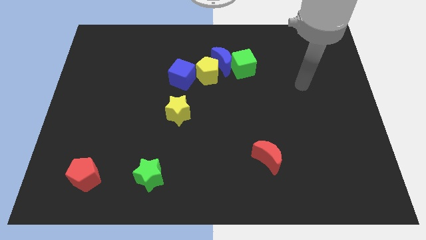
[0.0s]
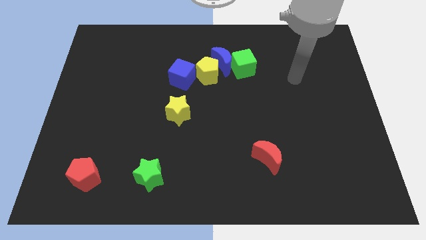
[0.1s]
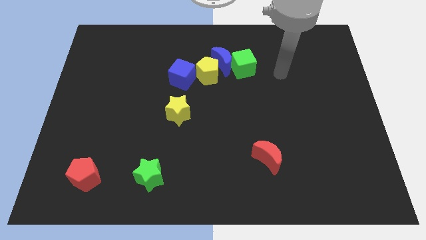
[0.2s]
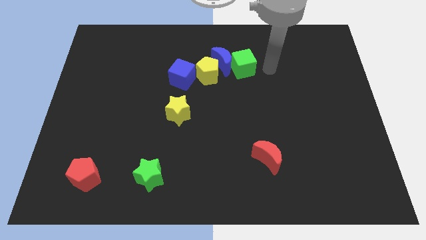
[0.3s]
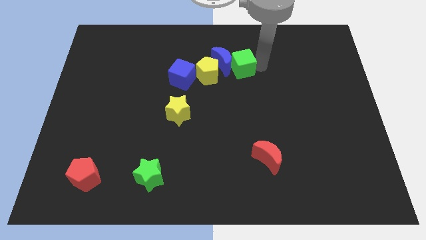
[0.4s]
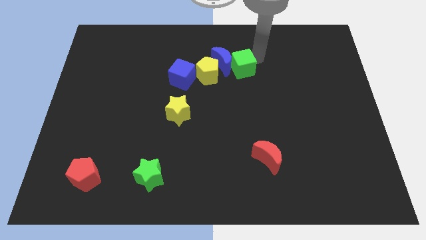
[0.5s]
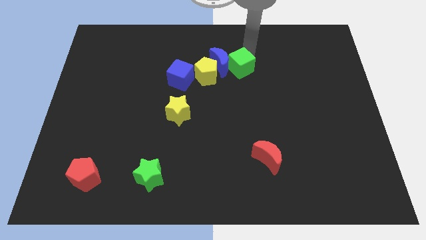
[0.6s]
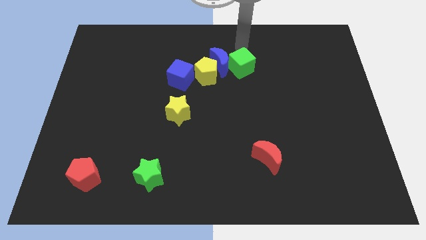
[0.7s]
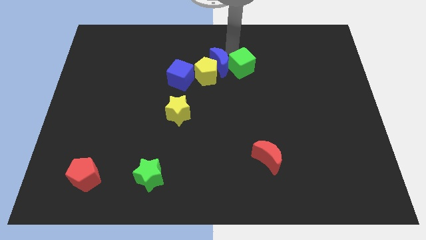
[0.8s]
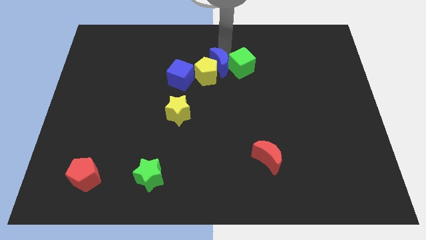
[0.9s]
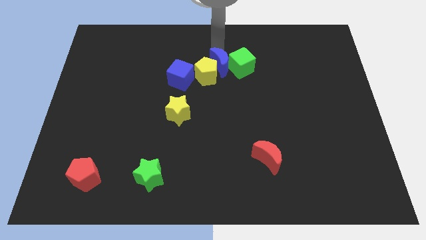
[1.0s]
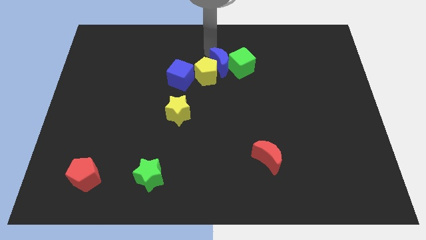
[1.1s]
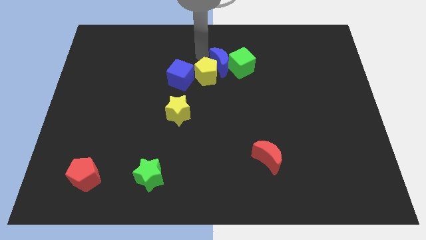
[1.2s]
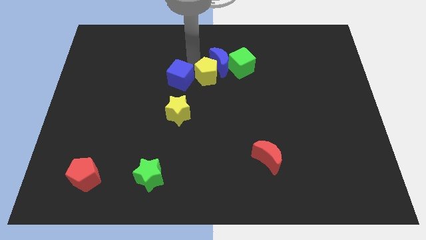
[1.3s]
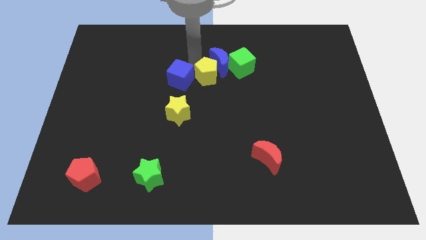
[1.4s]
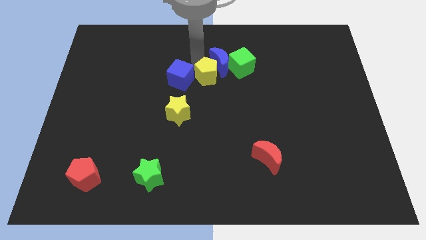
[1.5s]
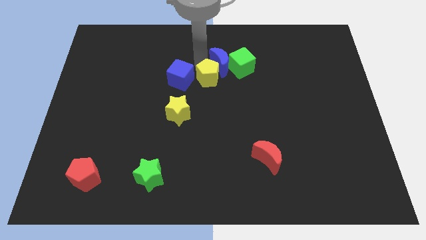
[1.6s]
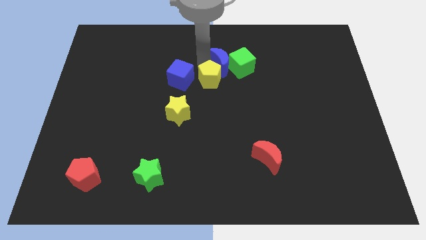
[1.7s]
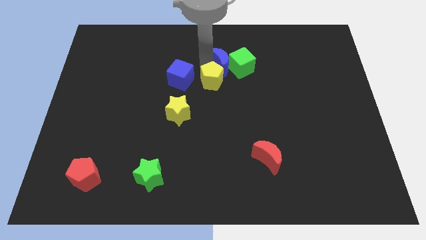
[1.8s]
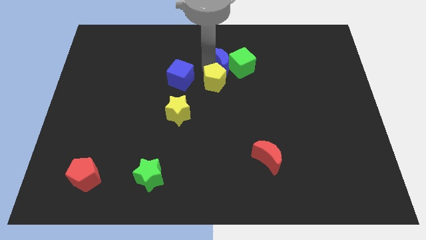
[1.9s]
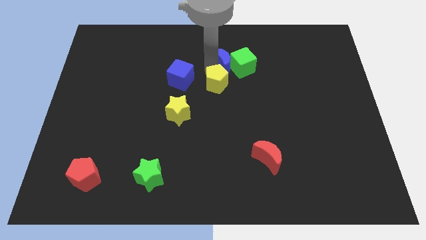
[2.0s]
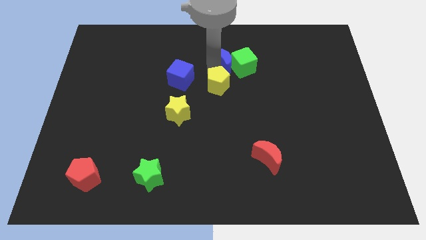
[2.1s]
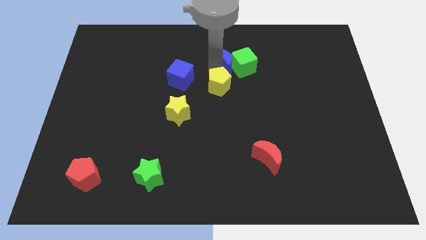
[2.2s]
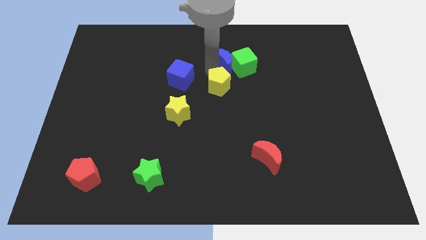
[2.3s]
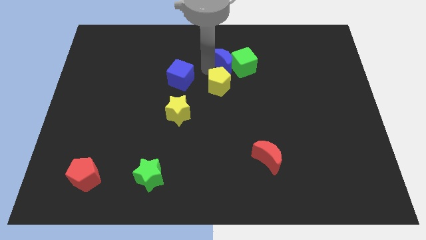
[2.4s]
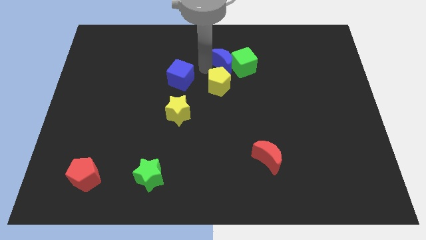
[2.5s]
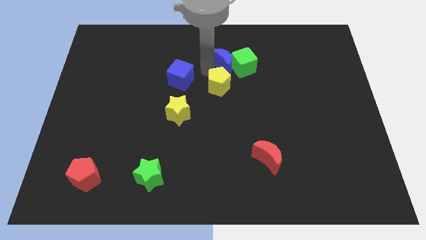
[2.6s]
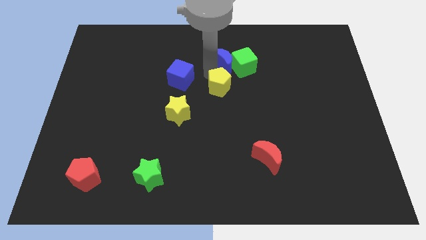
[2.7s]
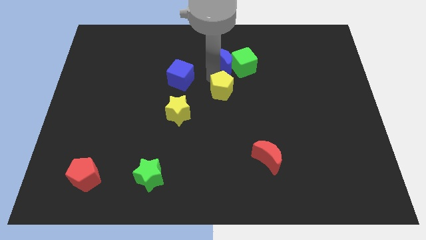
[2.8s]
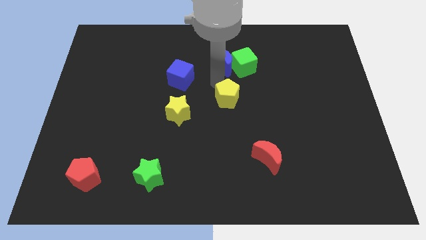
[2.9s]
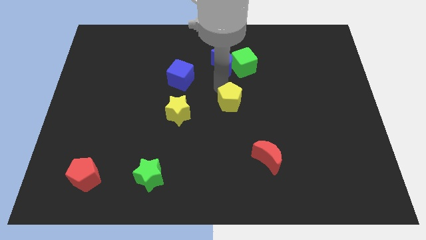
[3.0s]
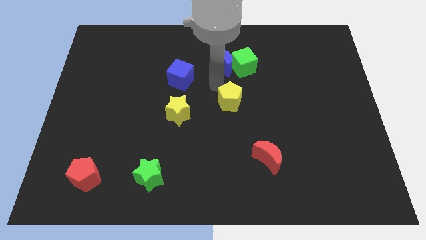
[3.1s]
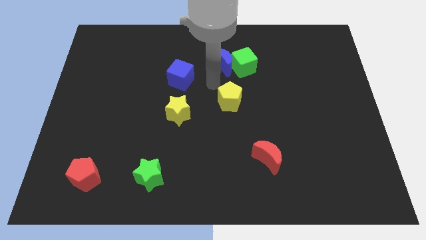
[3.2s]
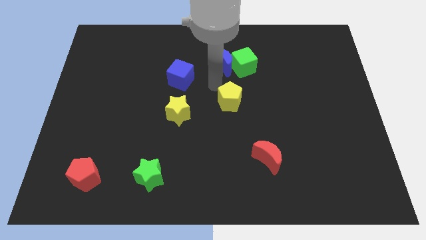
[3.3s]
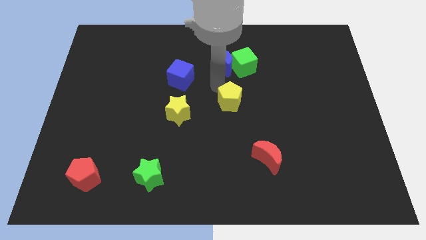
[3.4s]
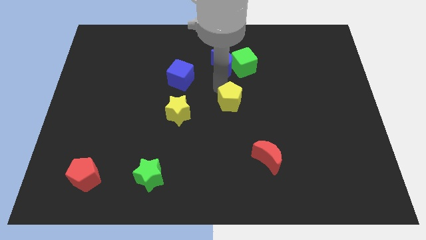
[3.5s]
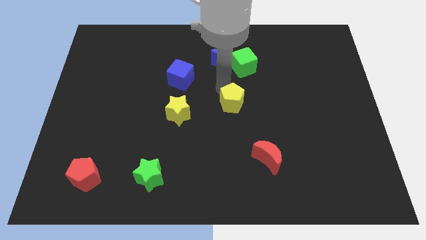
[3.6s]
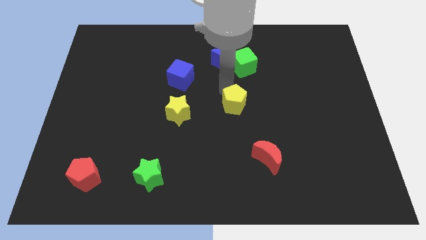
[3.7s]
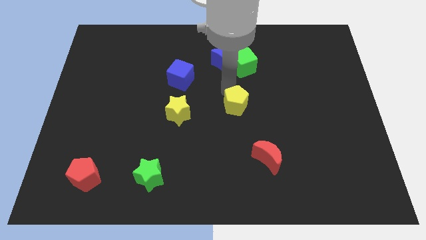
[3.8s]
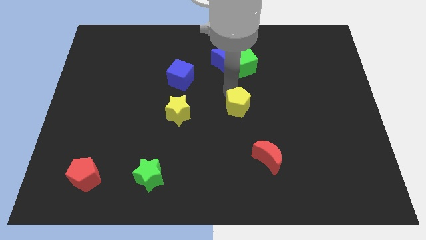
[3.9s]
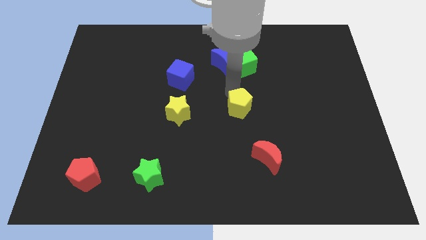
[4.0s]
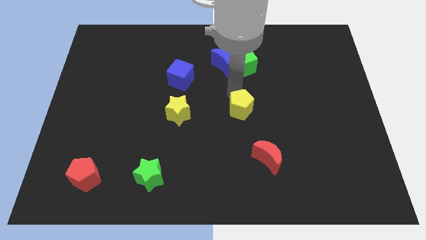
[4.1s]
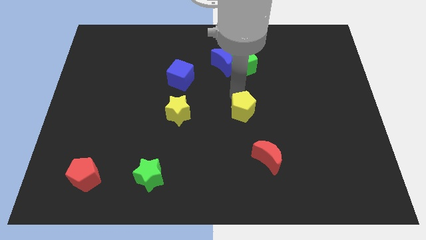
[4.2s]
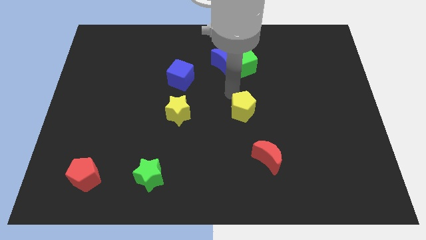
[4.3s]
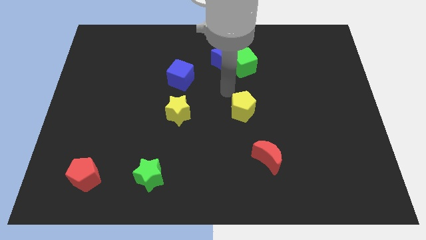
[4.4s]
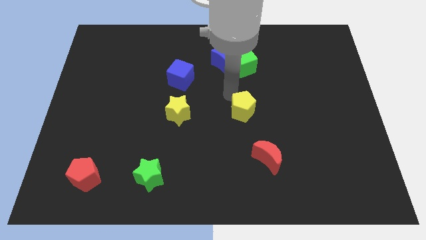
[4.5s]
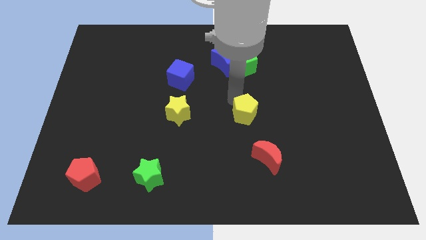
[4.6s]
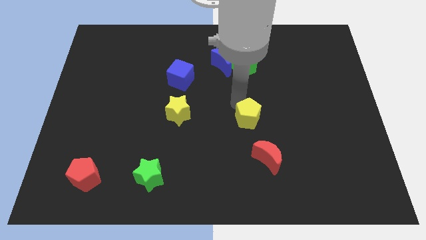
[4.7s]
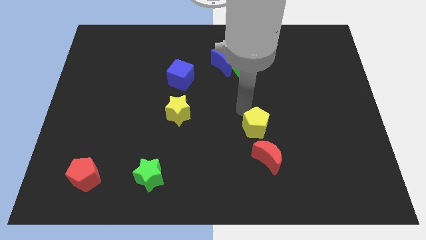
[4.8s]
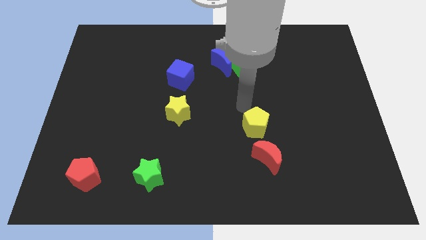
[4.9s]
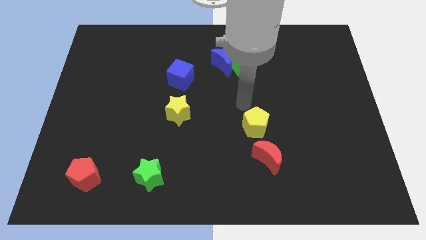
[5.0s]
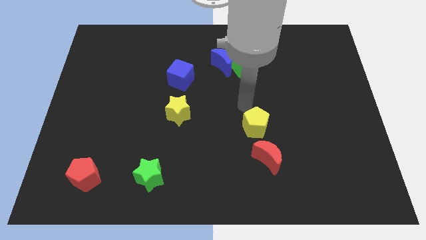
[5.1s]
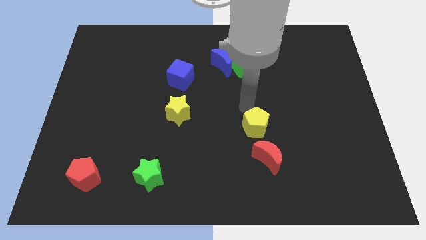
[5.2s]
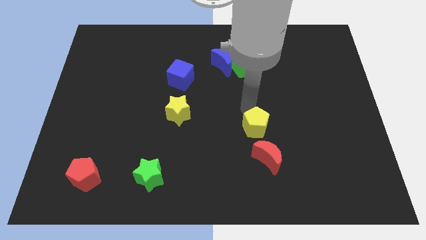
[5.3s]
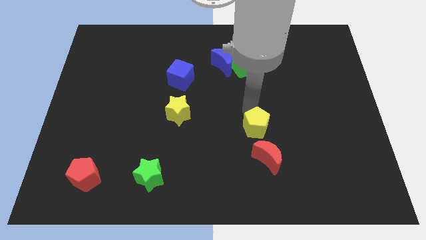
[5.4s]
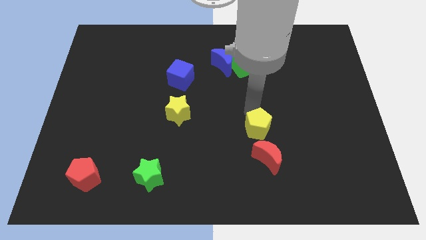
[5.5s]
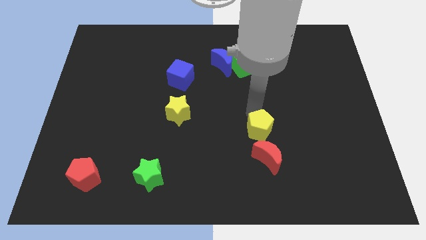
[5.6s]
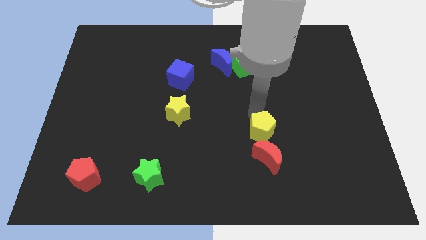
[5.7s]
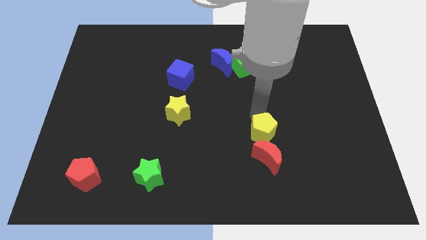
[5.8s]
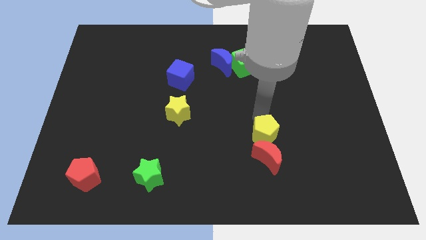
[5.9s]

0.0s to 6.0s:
move the yellow pentagon towards the red moon

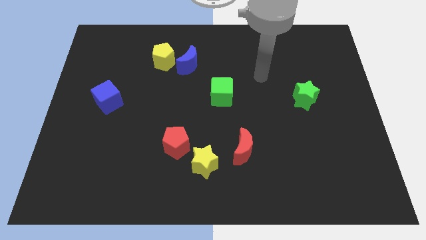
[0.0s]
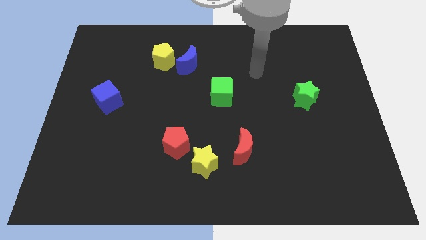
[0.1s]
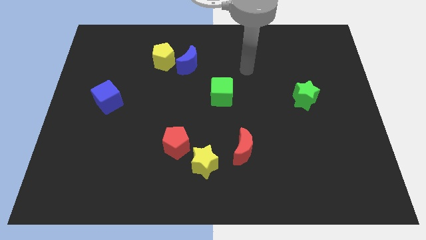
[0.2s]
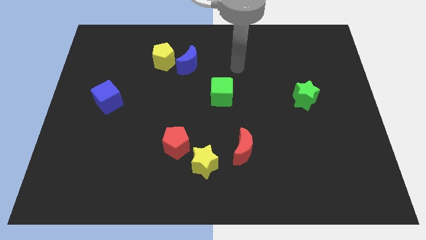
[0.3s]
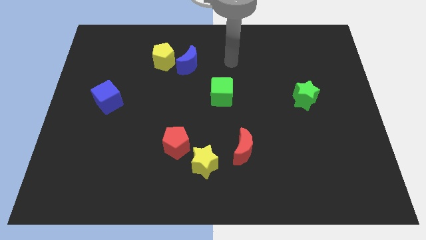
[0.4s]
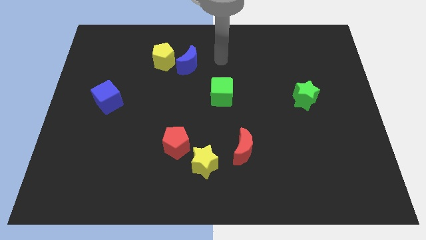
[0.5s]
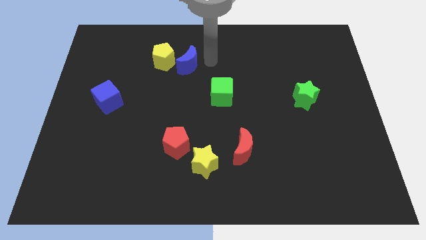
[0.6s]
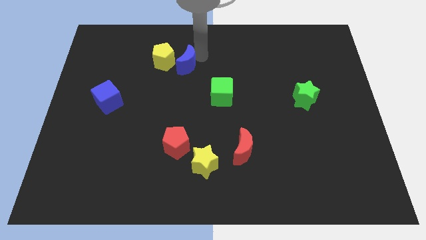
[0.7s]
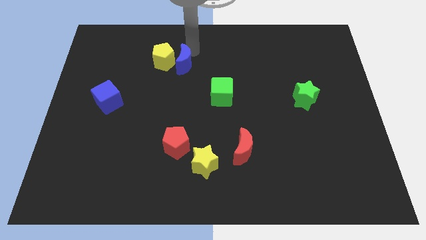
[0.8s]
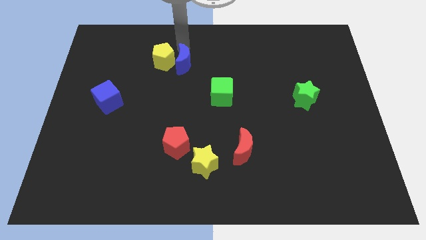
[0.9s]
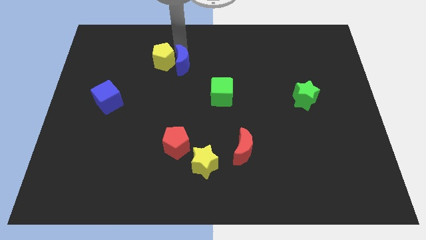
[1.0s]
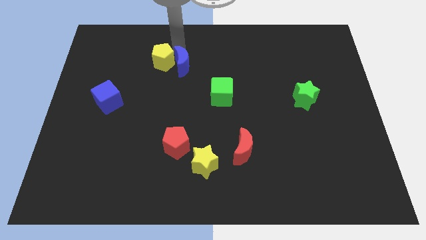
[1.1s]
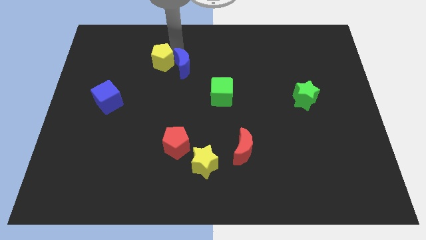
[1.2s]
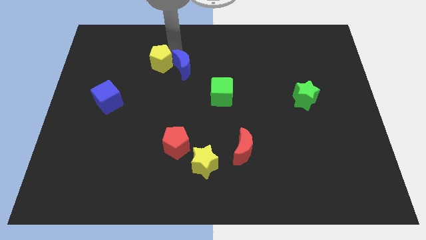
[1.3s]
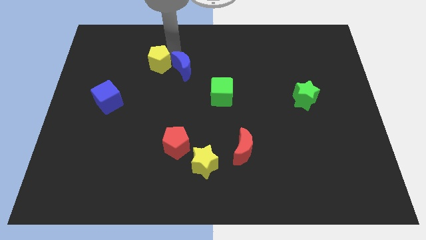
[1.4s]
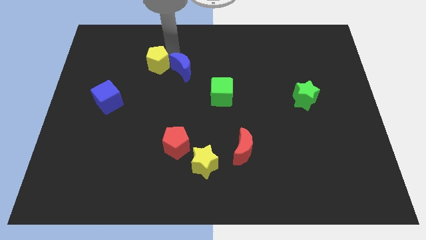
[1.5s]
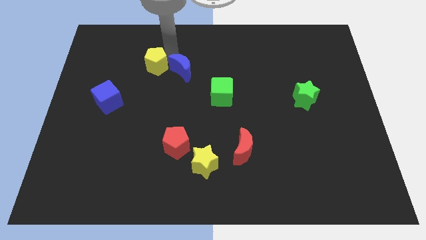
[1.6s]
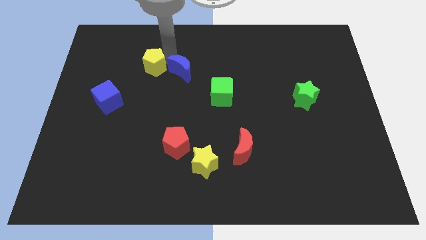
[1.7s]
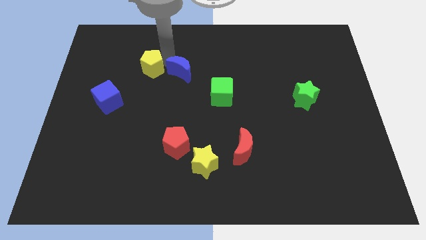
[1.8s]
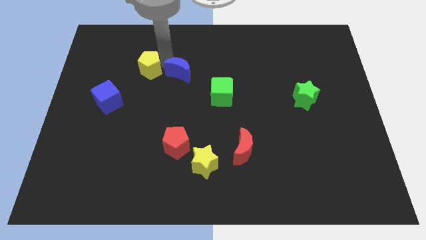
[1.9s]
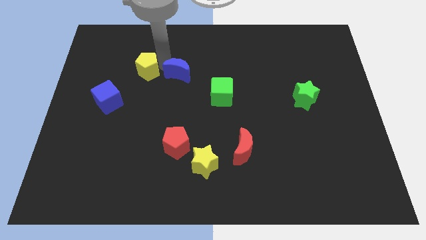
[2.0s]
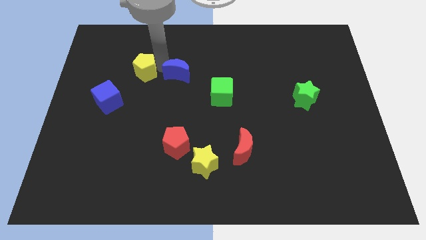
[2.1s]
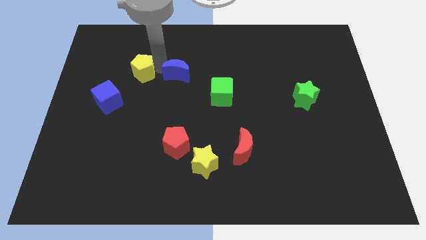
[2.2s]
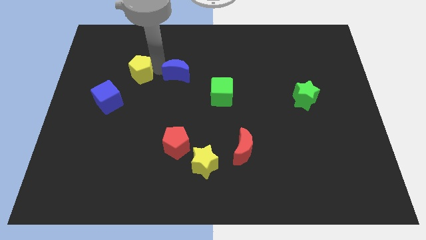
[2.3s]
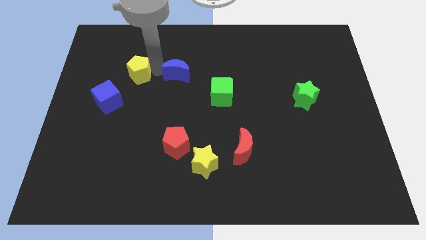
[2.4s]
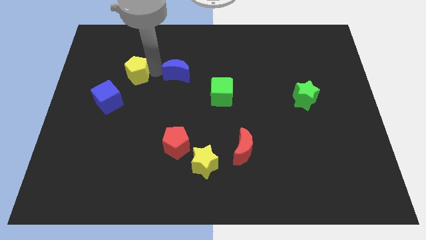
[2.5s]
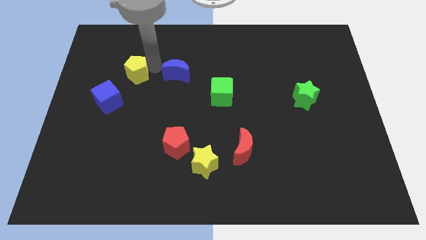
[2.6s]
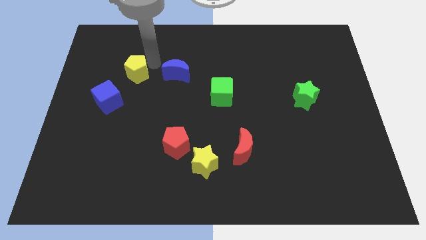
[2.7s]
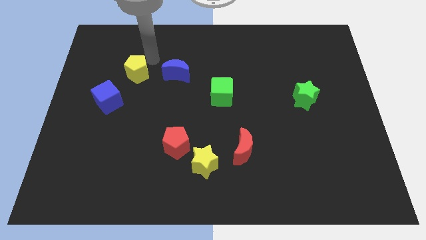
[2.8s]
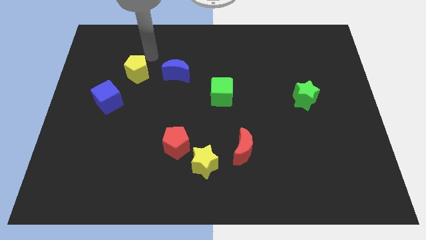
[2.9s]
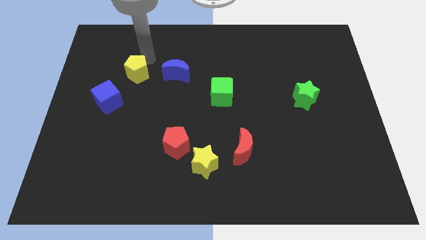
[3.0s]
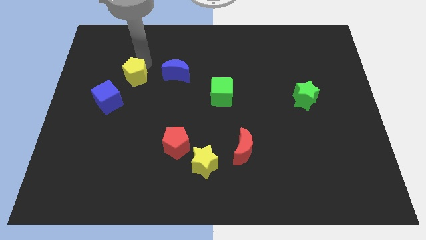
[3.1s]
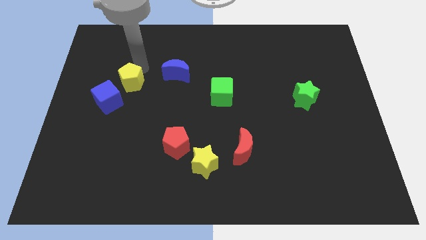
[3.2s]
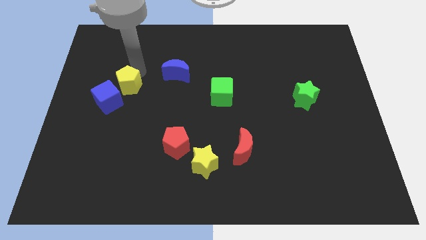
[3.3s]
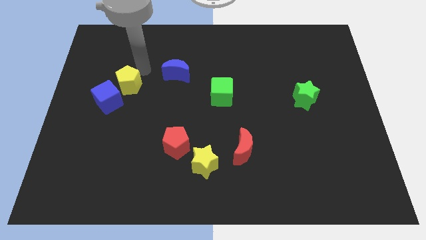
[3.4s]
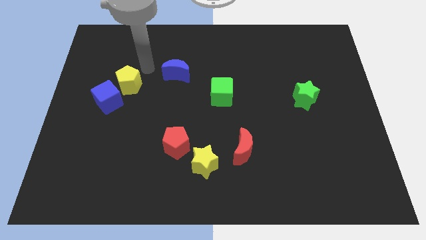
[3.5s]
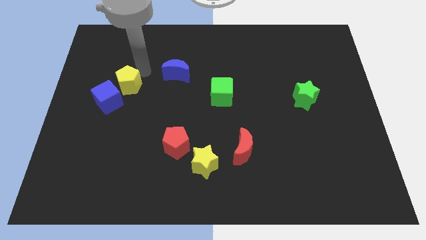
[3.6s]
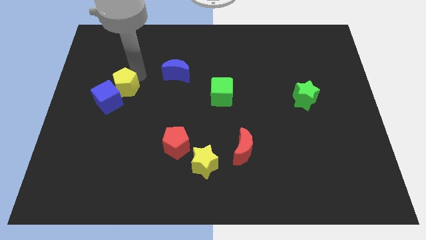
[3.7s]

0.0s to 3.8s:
slide the yellow pentagon close to the blue cube
